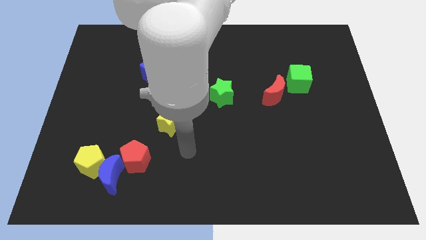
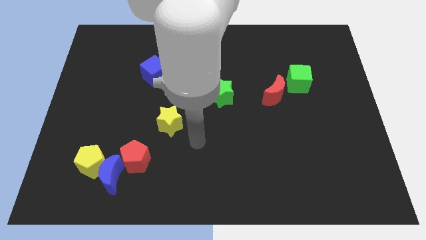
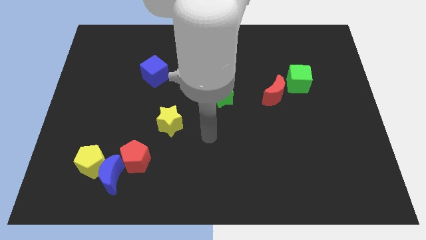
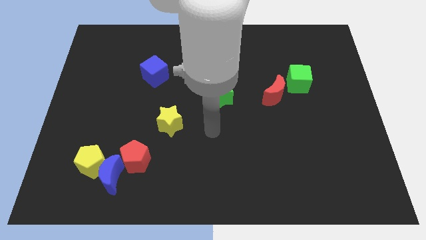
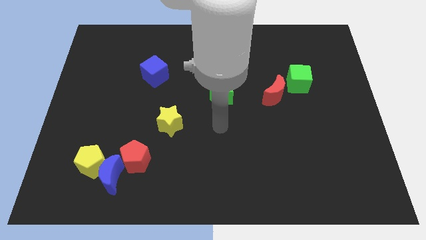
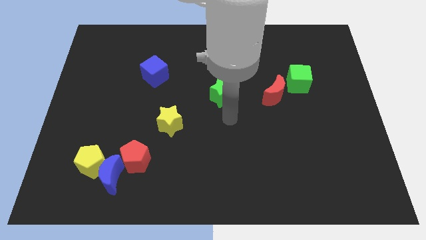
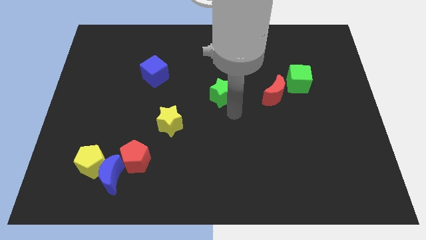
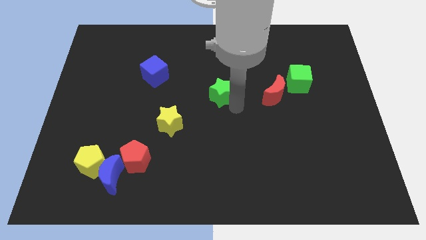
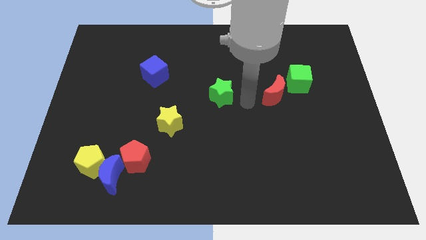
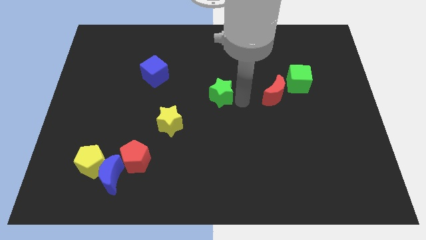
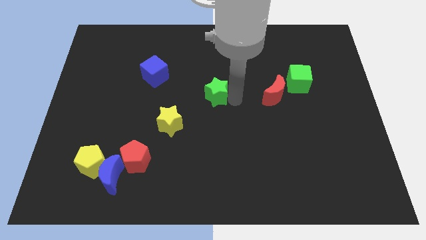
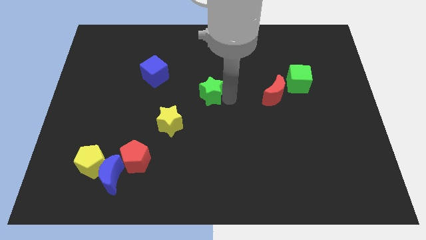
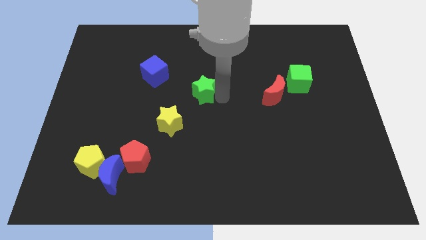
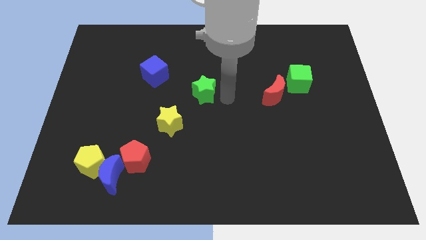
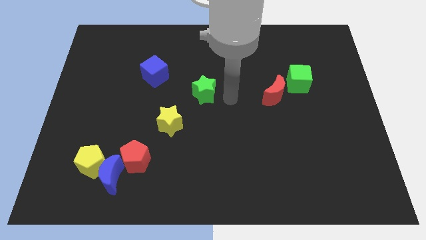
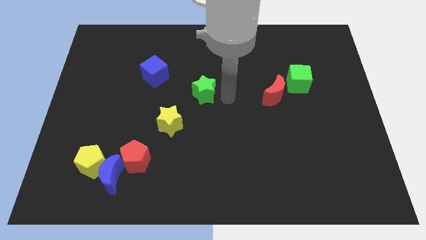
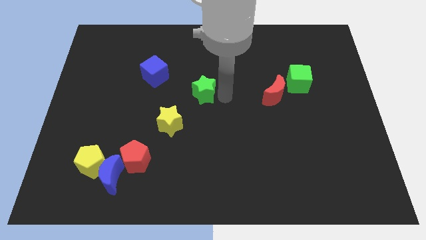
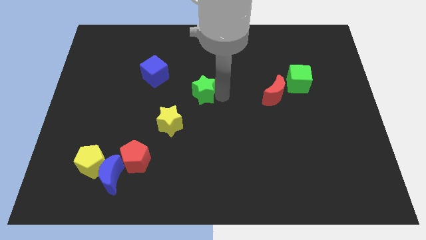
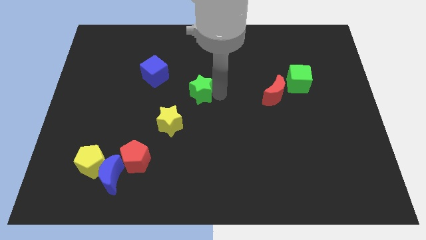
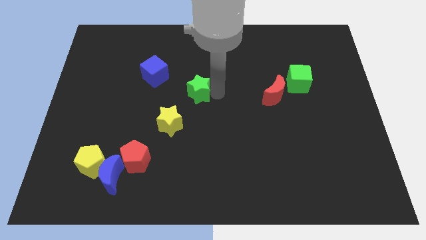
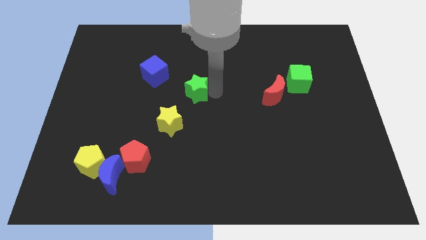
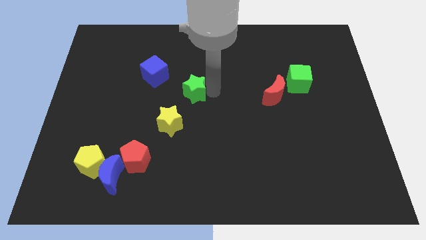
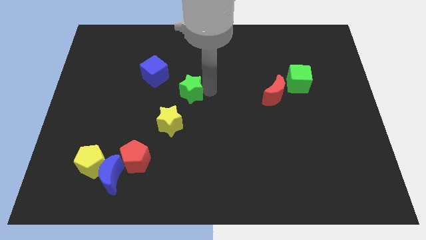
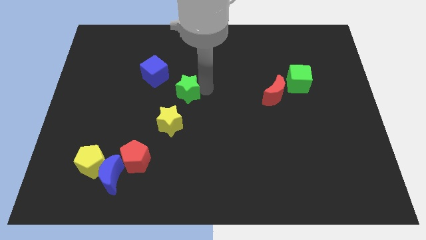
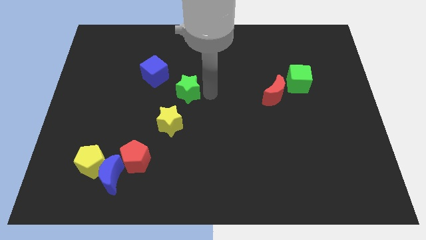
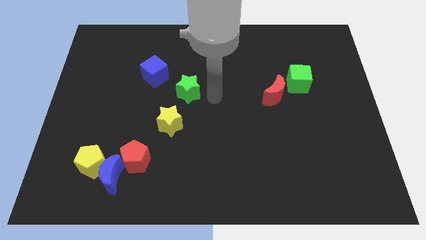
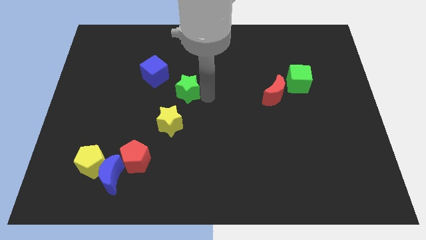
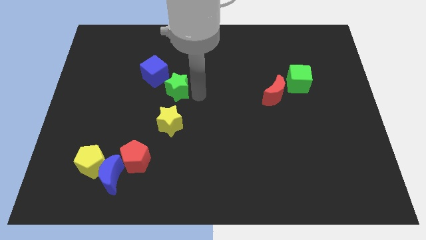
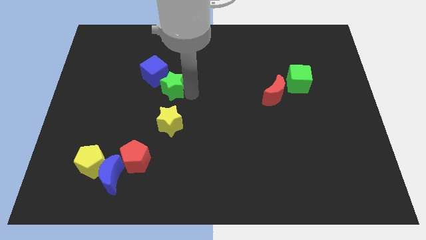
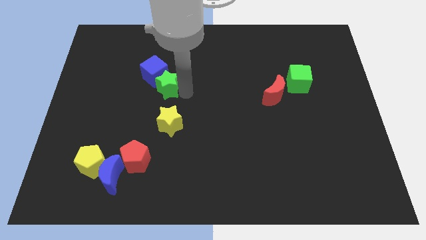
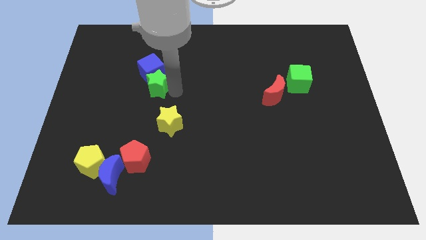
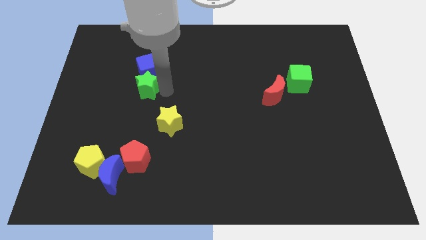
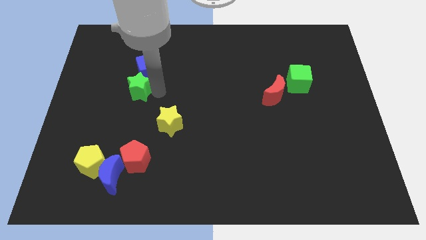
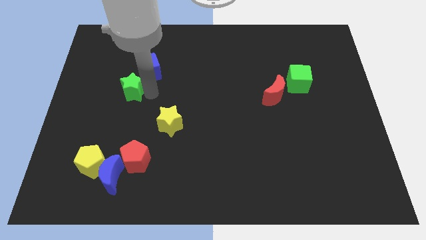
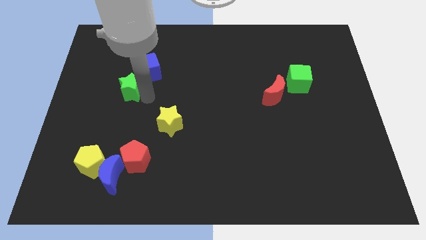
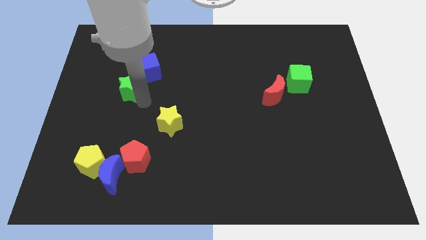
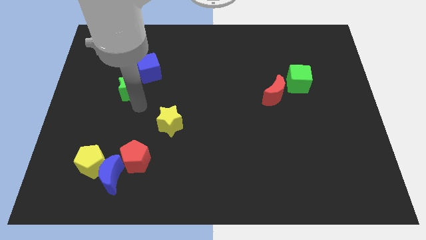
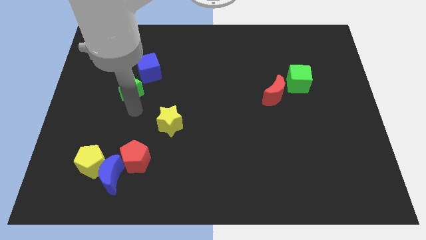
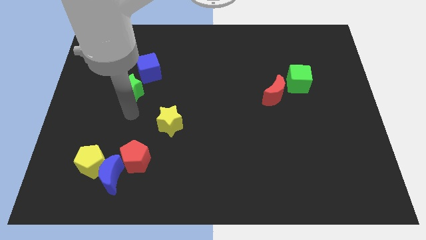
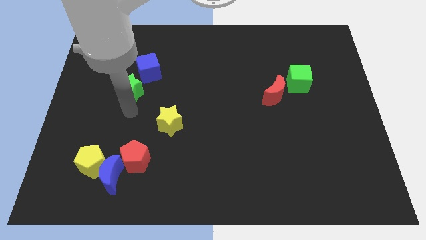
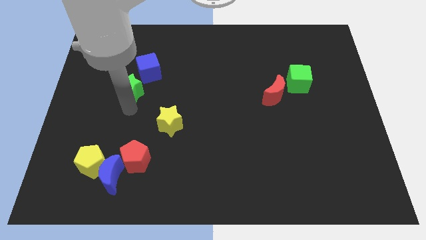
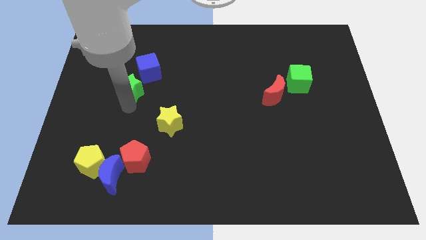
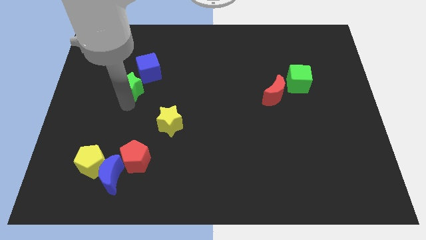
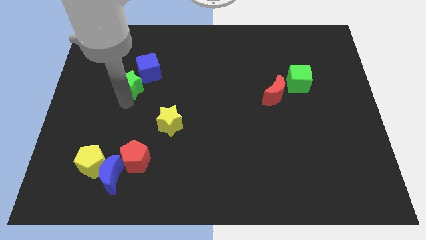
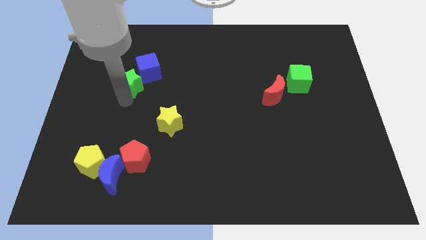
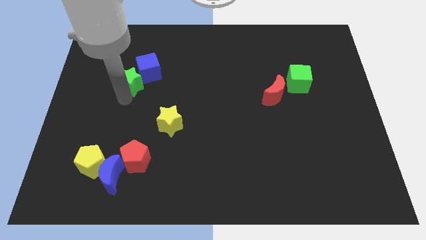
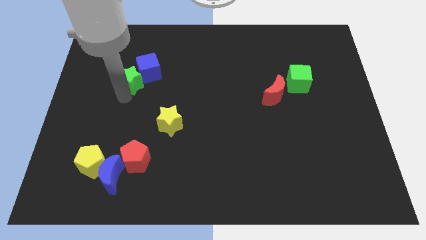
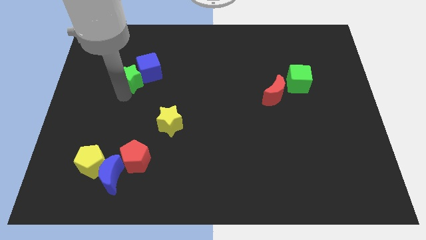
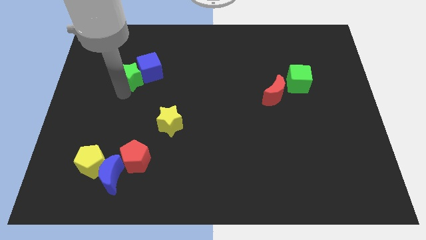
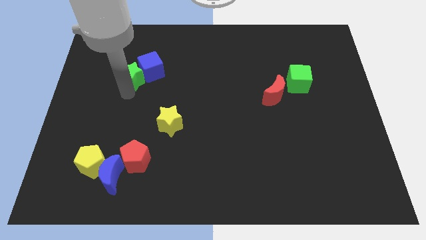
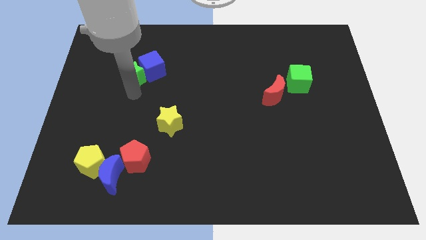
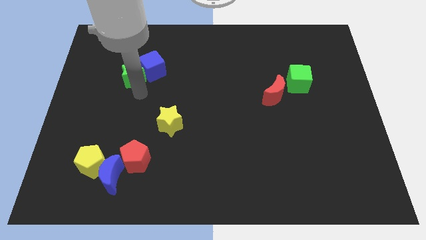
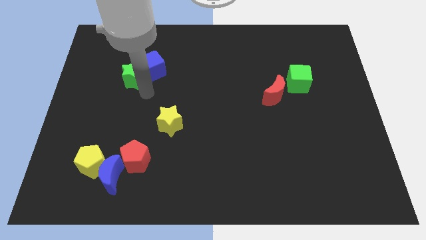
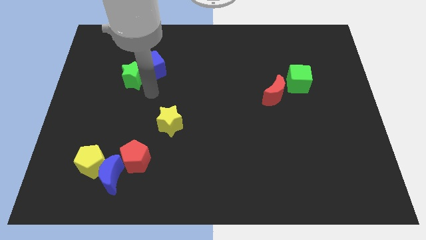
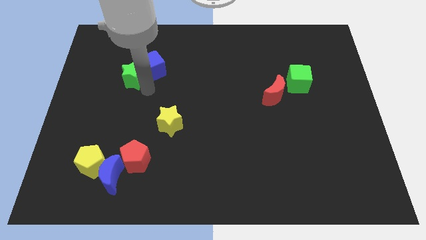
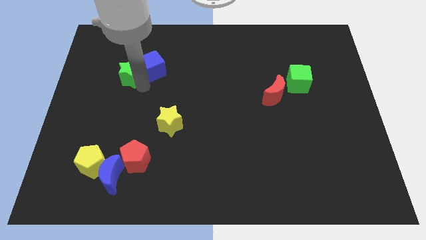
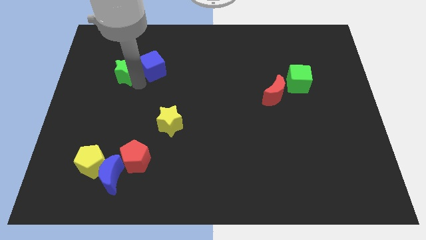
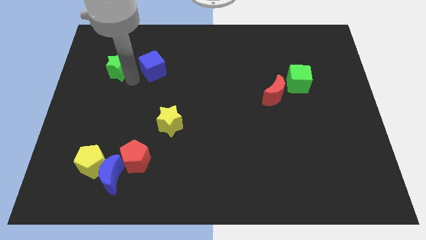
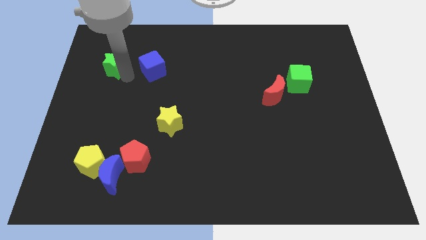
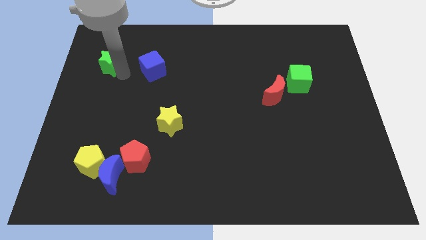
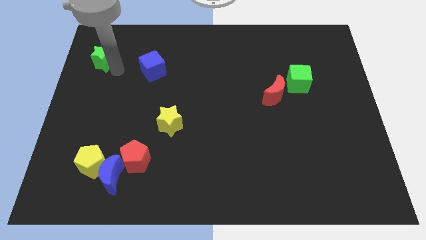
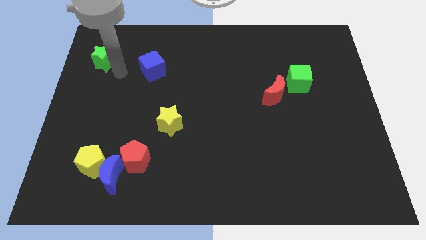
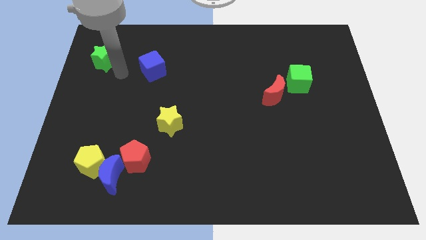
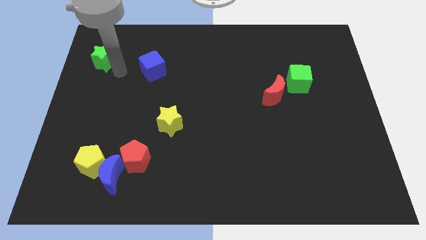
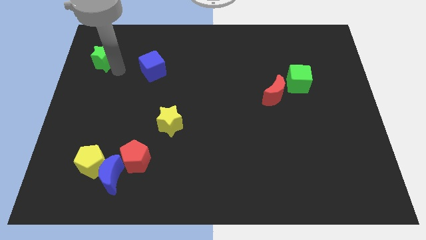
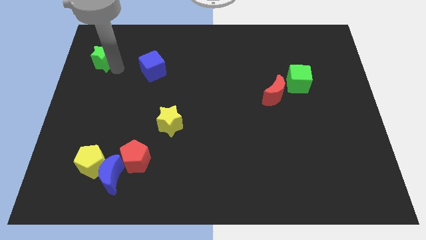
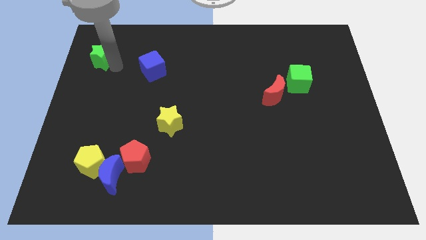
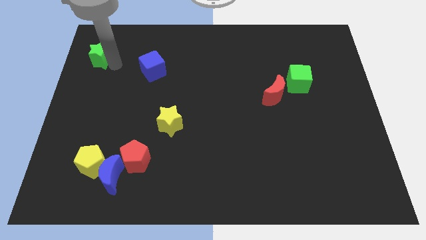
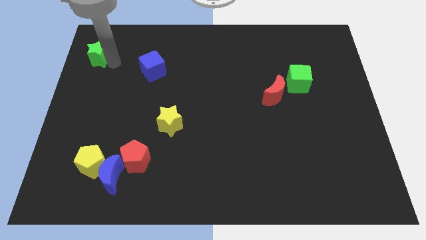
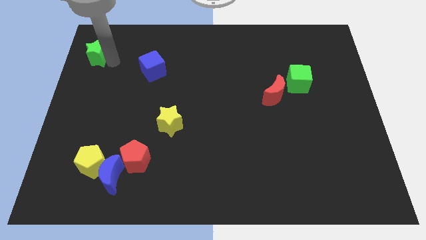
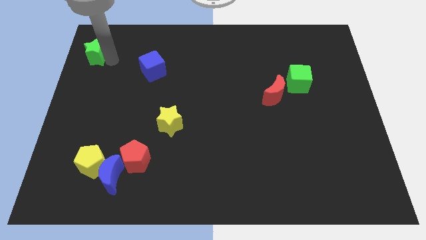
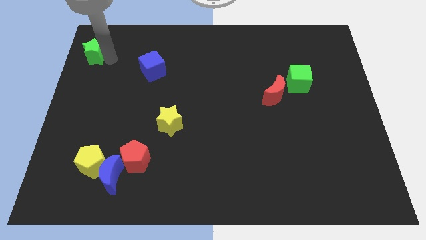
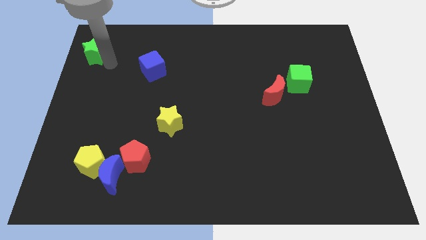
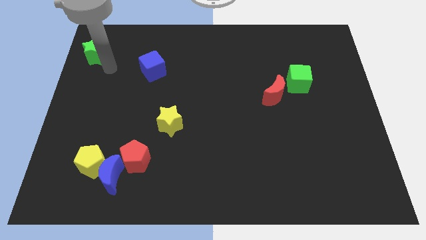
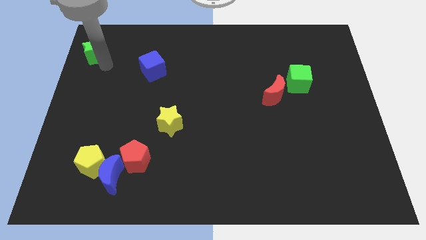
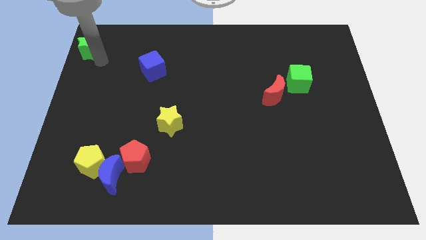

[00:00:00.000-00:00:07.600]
move the green star to the top left corner
